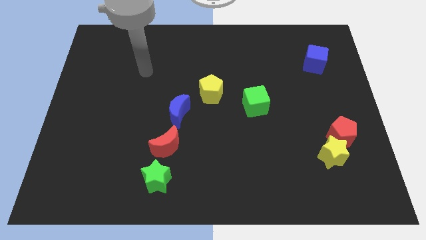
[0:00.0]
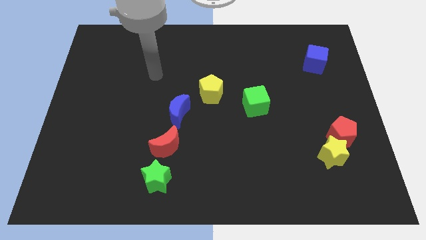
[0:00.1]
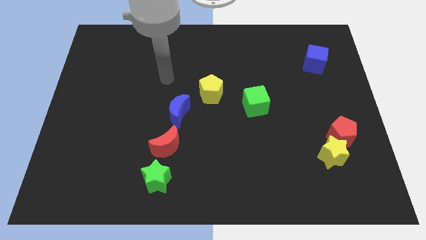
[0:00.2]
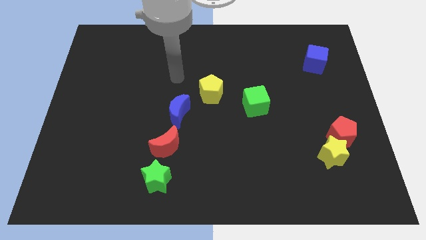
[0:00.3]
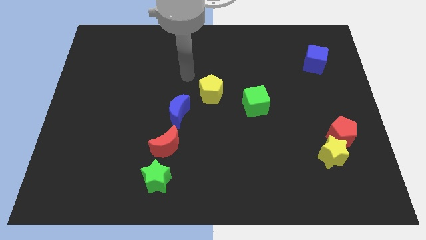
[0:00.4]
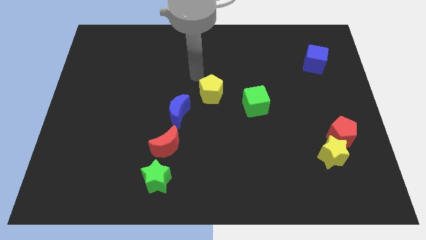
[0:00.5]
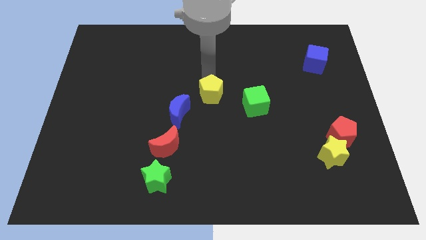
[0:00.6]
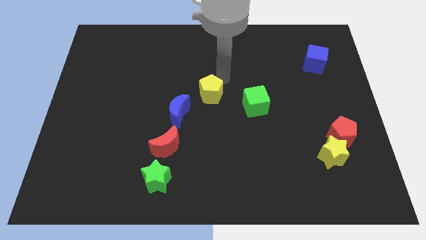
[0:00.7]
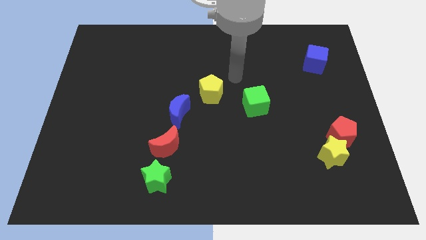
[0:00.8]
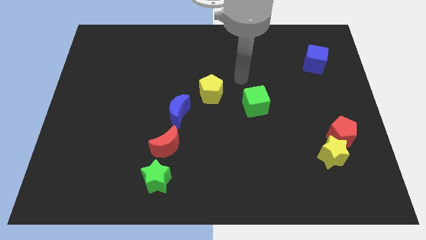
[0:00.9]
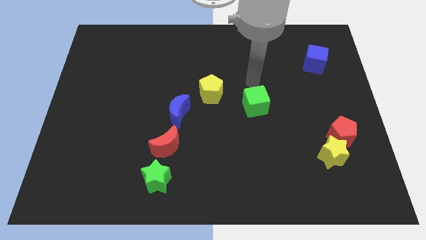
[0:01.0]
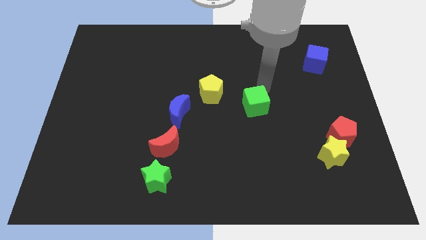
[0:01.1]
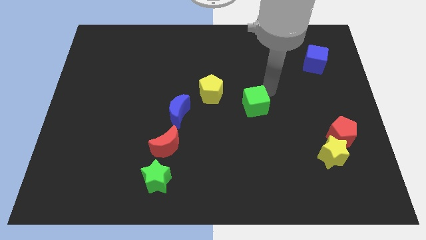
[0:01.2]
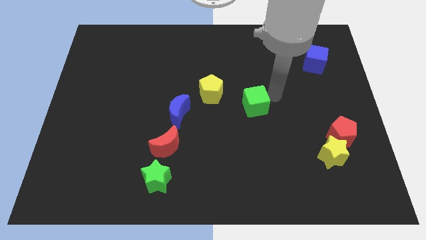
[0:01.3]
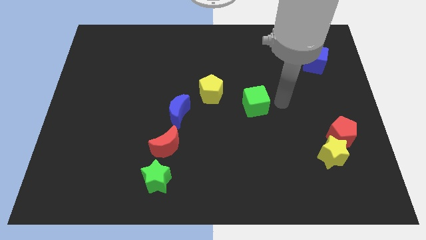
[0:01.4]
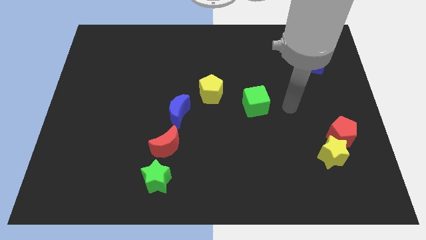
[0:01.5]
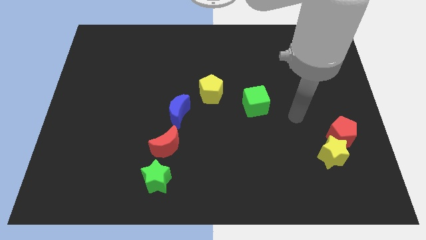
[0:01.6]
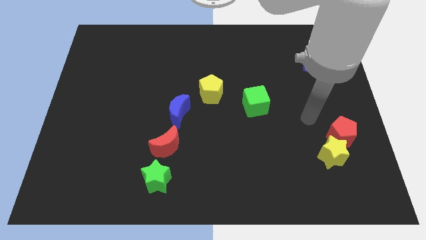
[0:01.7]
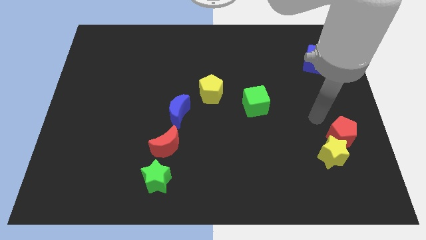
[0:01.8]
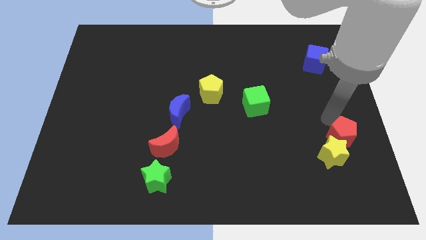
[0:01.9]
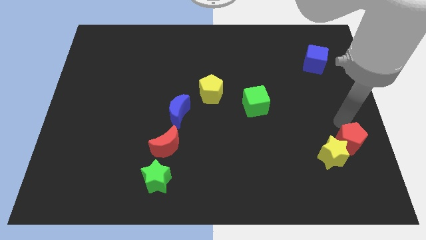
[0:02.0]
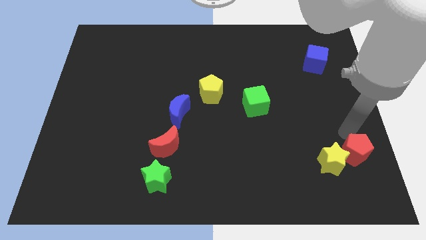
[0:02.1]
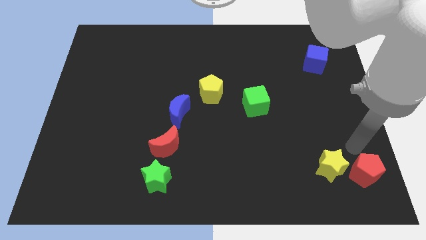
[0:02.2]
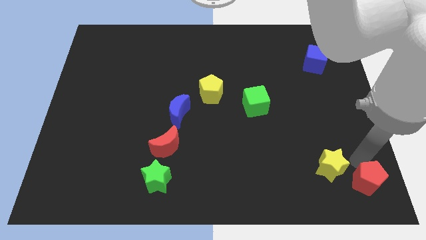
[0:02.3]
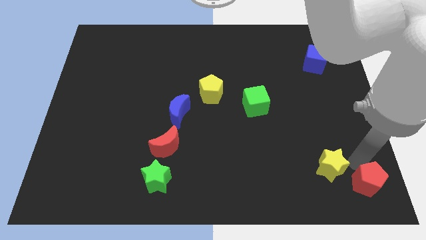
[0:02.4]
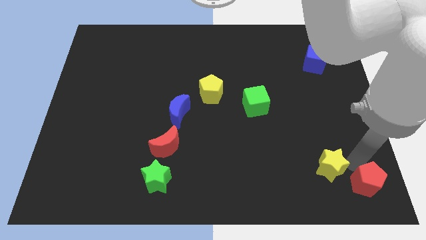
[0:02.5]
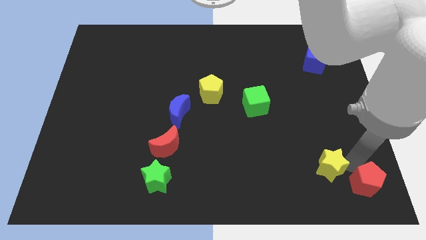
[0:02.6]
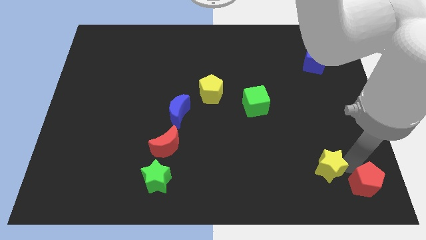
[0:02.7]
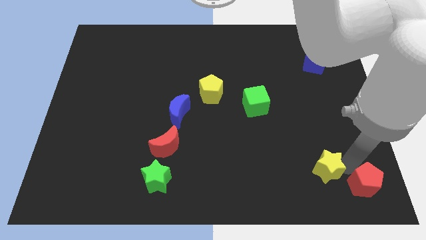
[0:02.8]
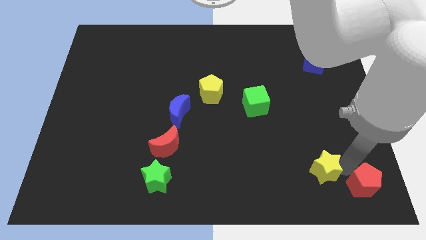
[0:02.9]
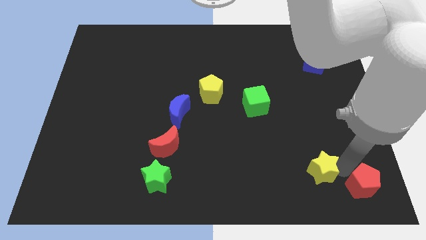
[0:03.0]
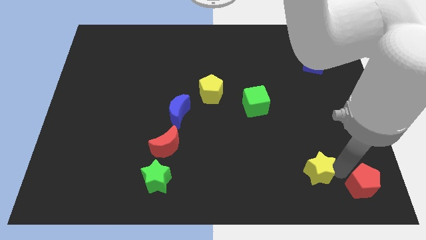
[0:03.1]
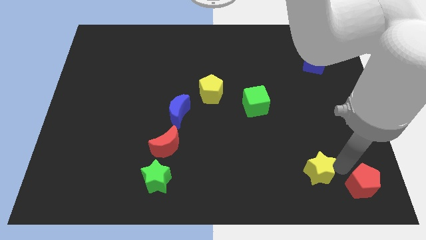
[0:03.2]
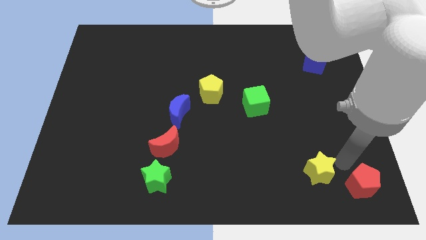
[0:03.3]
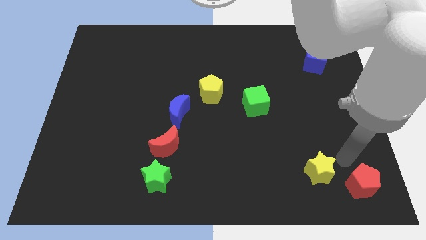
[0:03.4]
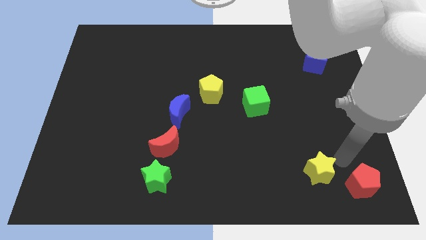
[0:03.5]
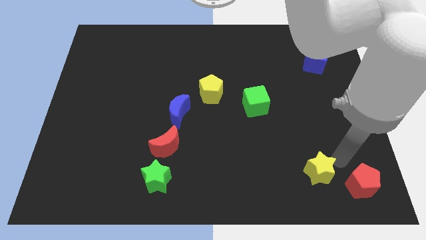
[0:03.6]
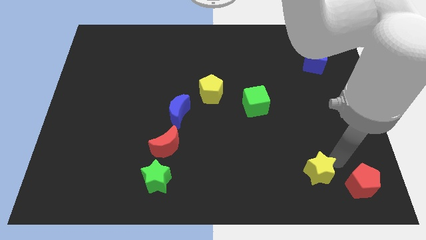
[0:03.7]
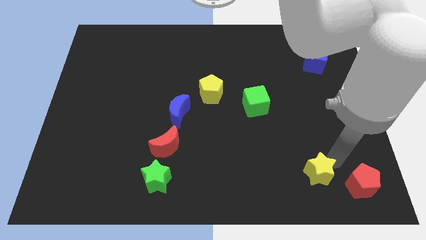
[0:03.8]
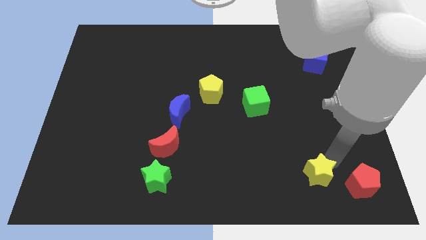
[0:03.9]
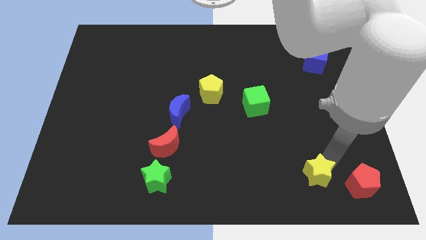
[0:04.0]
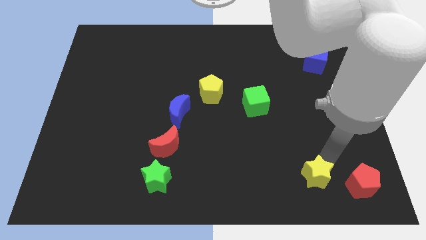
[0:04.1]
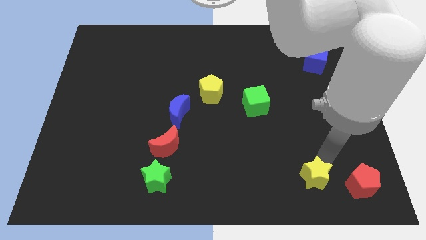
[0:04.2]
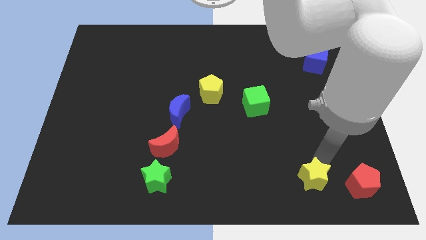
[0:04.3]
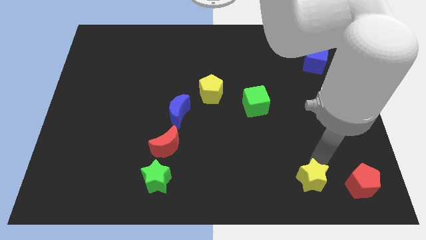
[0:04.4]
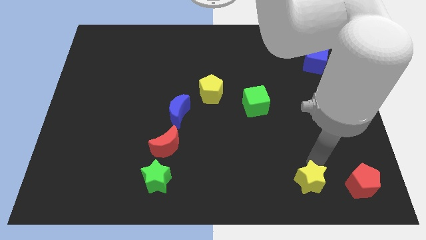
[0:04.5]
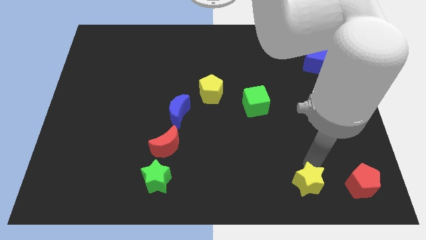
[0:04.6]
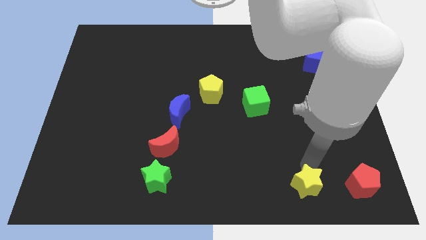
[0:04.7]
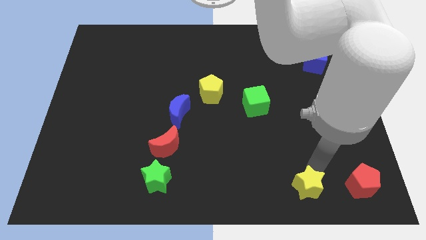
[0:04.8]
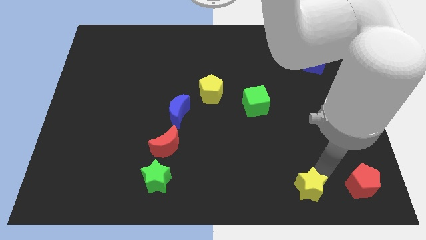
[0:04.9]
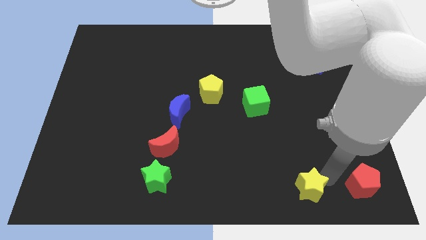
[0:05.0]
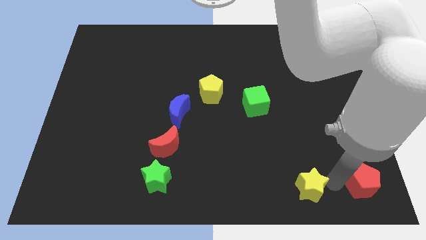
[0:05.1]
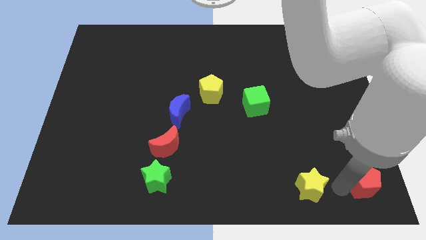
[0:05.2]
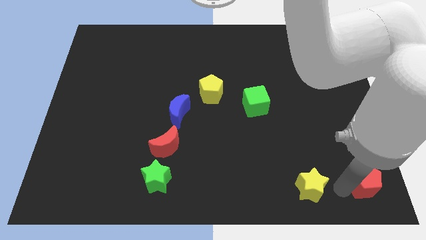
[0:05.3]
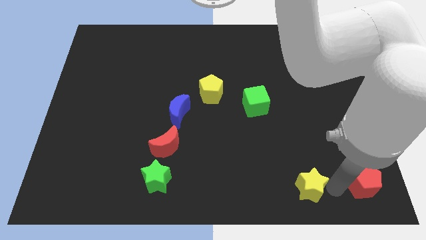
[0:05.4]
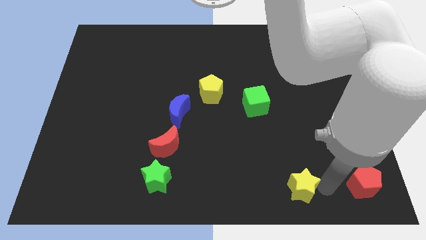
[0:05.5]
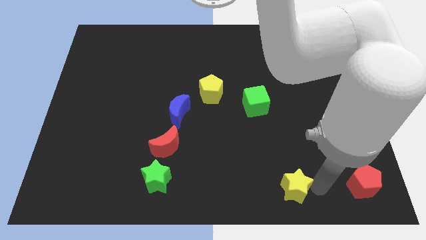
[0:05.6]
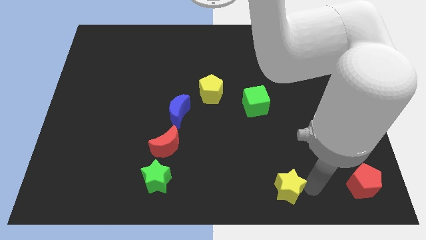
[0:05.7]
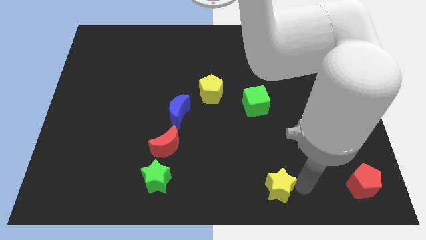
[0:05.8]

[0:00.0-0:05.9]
push the yellow star to the bottom

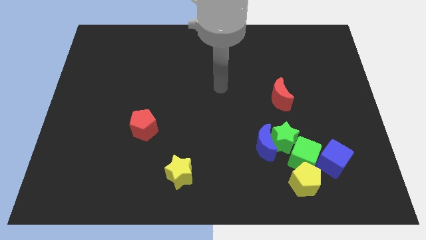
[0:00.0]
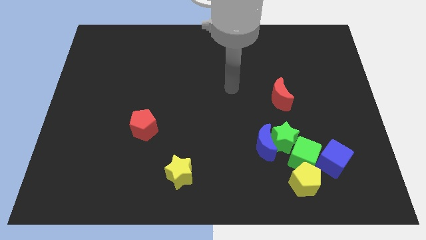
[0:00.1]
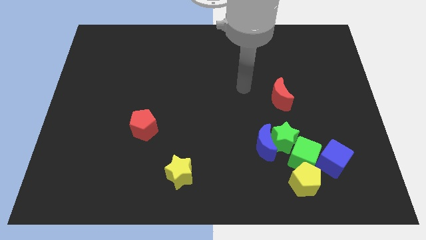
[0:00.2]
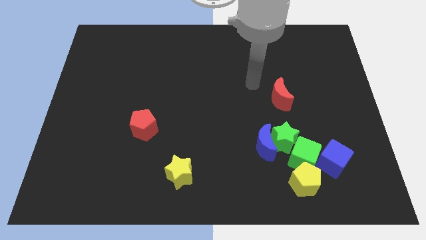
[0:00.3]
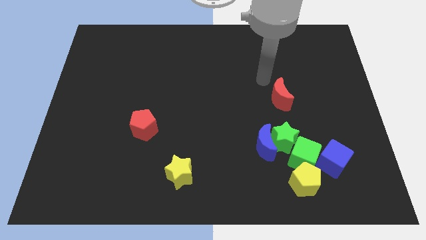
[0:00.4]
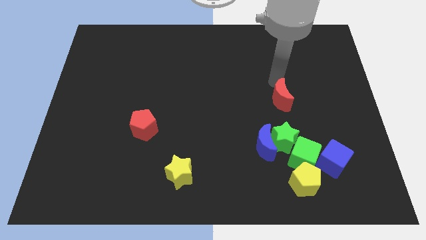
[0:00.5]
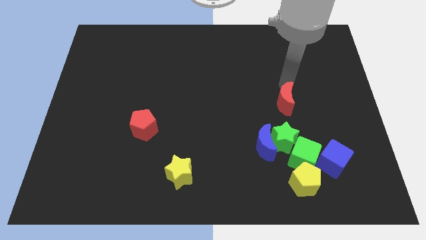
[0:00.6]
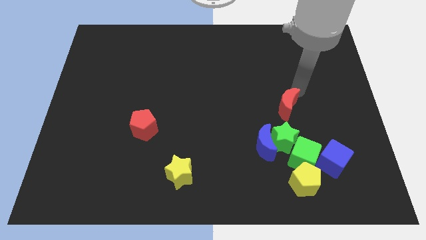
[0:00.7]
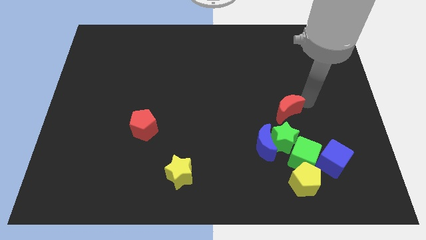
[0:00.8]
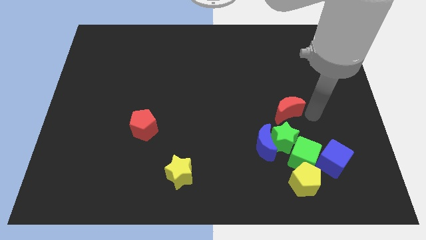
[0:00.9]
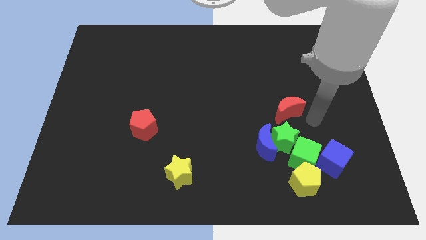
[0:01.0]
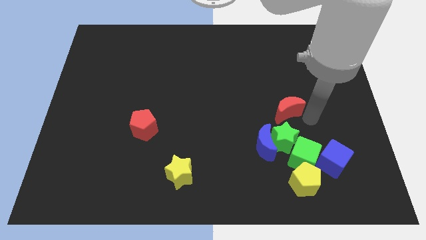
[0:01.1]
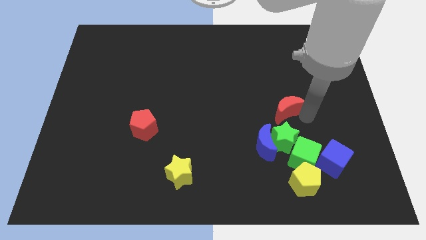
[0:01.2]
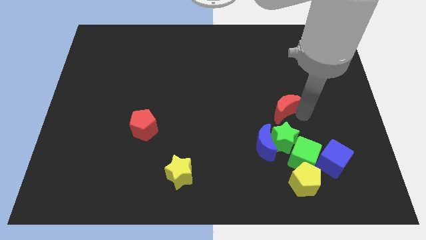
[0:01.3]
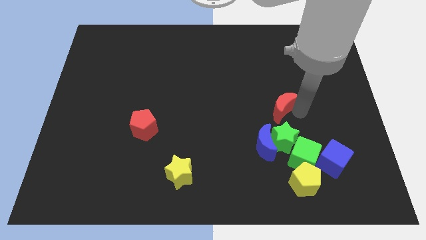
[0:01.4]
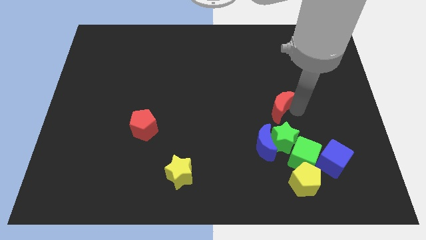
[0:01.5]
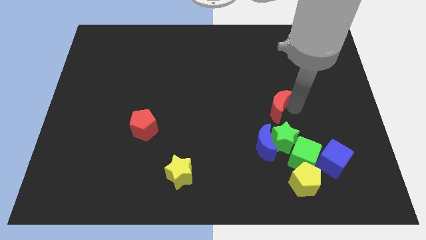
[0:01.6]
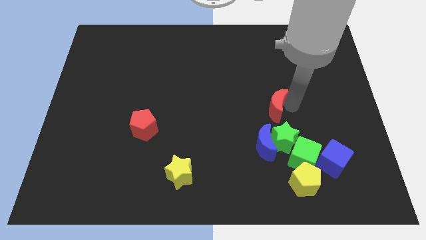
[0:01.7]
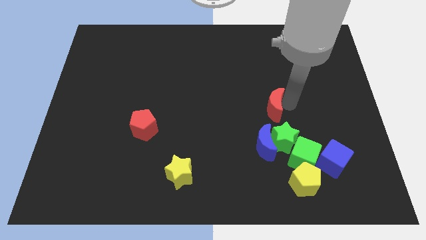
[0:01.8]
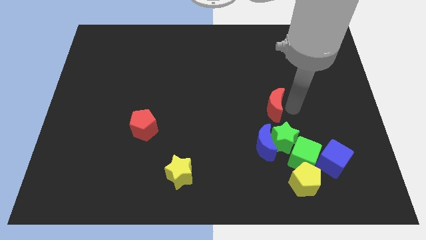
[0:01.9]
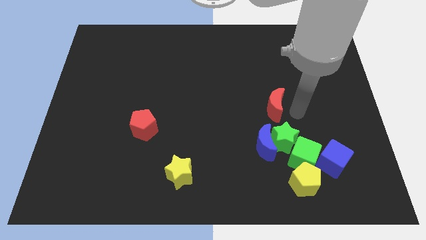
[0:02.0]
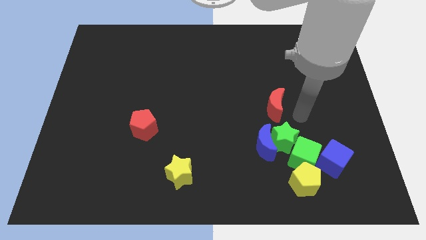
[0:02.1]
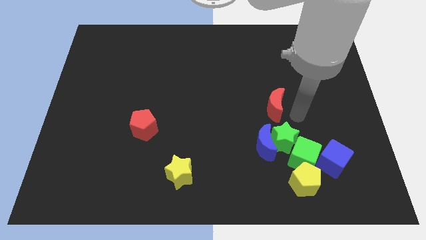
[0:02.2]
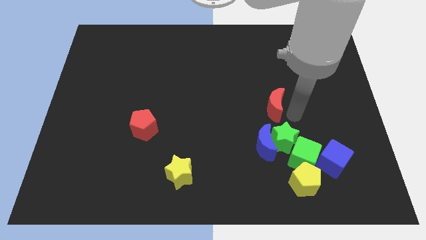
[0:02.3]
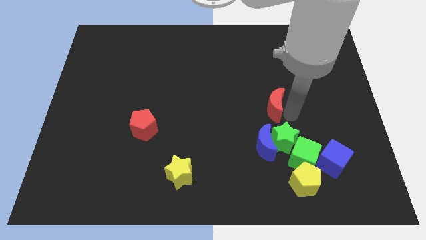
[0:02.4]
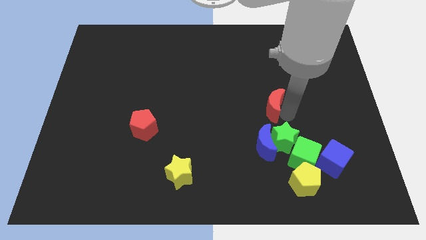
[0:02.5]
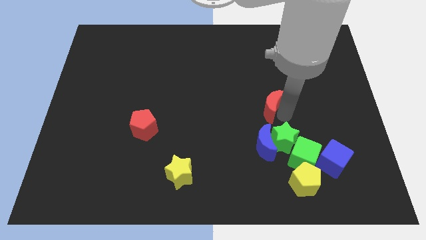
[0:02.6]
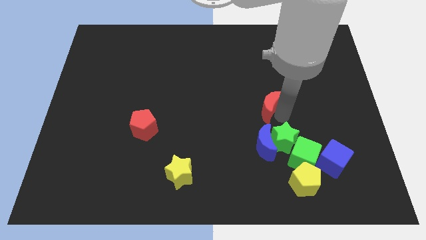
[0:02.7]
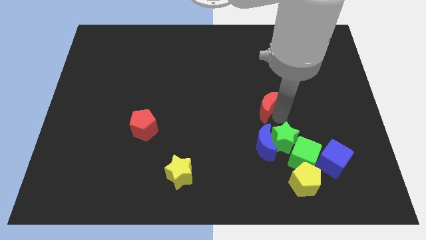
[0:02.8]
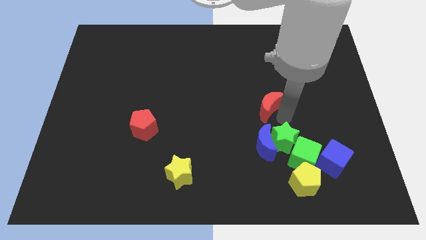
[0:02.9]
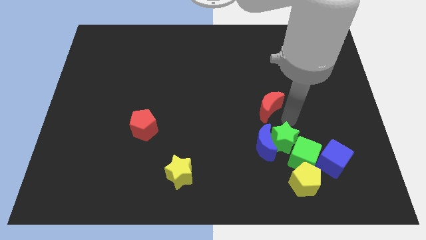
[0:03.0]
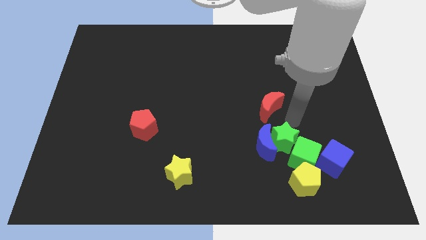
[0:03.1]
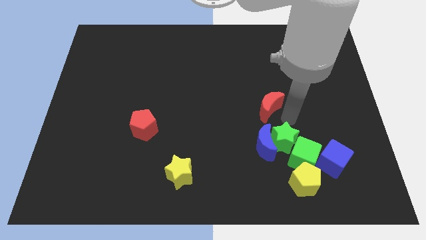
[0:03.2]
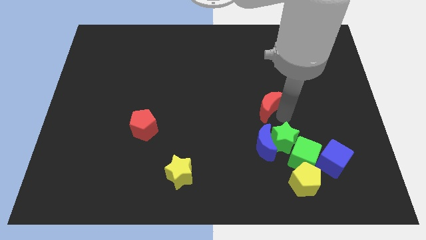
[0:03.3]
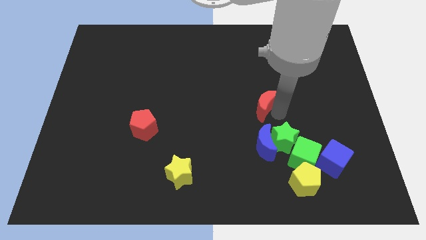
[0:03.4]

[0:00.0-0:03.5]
push the red moon to the middle of the board
